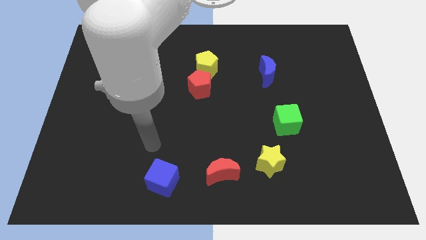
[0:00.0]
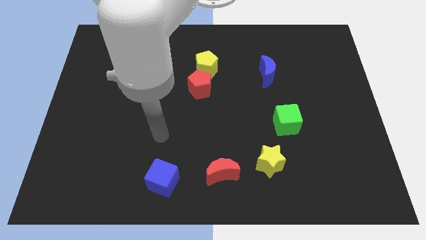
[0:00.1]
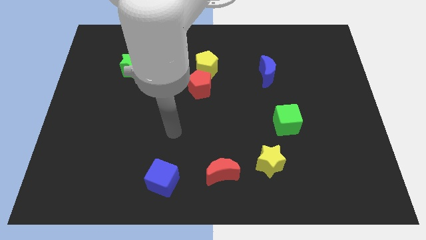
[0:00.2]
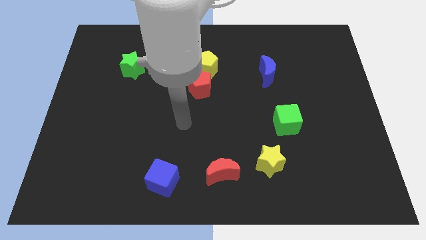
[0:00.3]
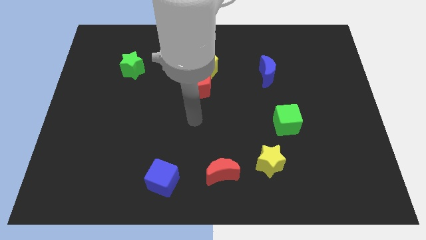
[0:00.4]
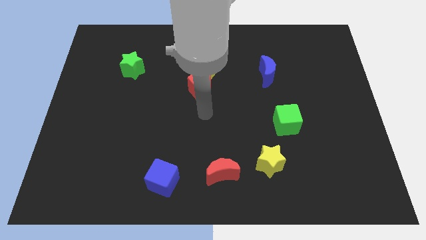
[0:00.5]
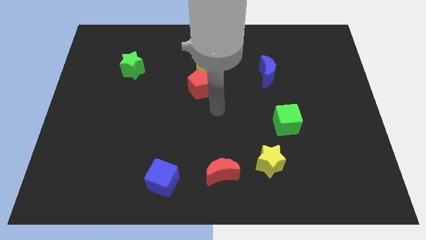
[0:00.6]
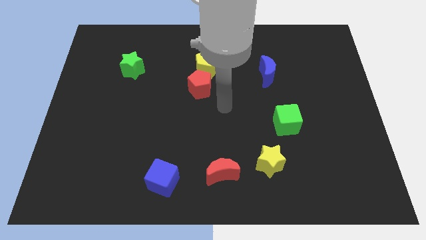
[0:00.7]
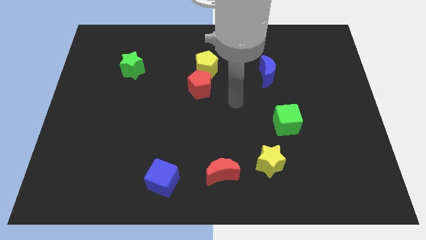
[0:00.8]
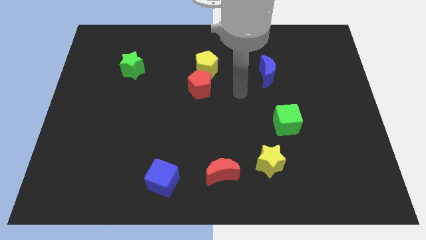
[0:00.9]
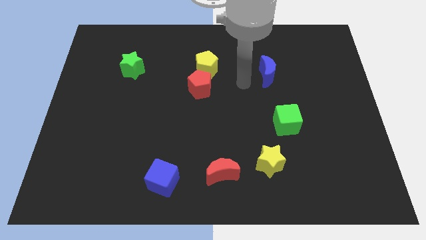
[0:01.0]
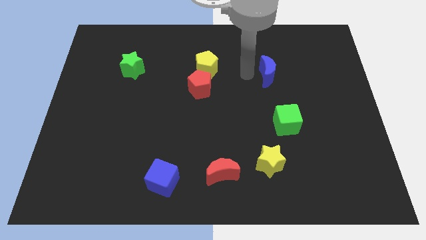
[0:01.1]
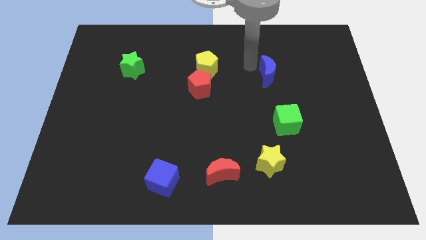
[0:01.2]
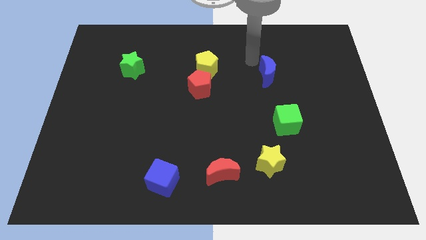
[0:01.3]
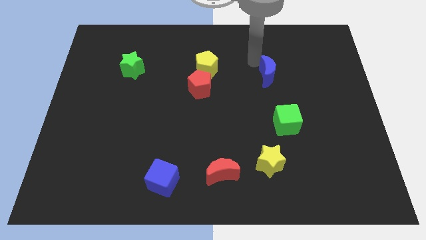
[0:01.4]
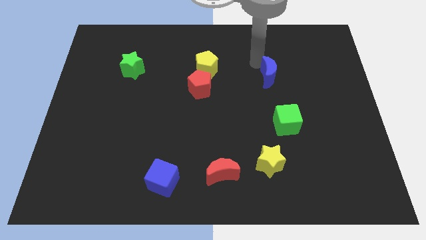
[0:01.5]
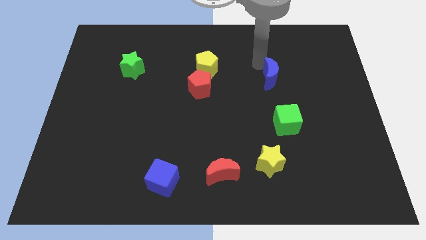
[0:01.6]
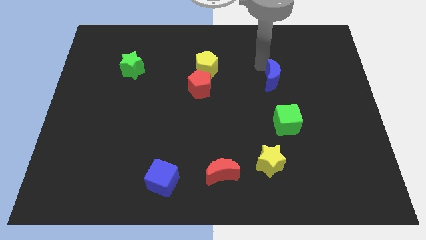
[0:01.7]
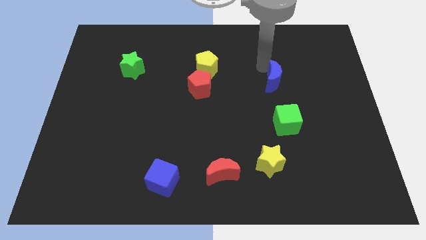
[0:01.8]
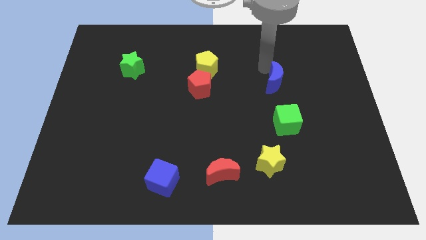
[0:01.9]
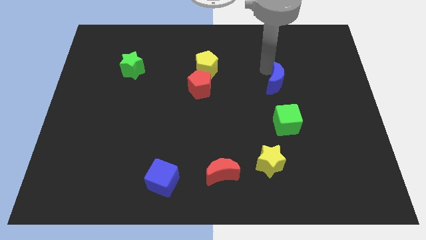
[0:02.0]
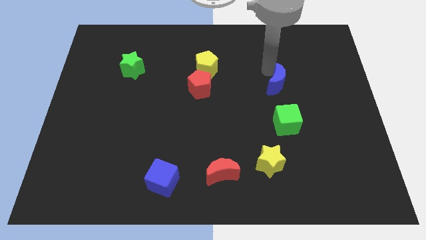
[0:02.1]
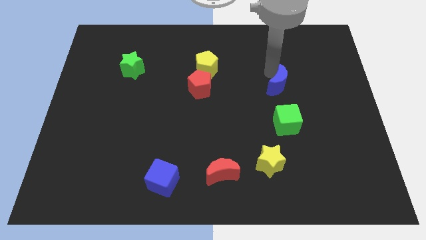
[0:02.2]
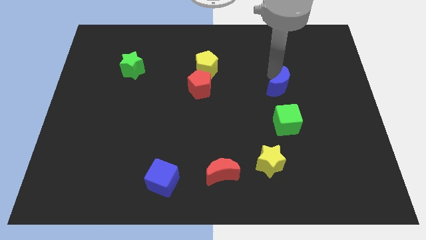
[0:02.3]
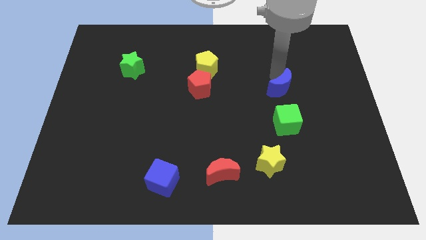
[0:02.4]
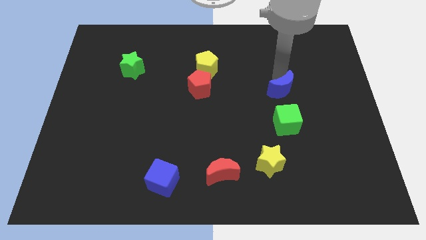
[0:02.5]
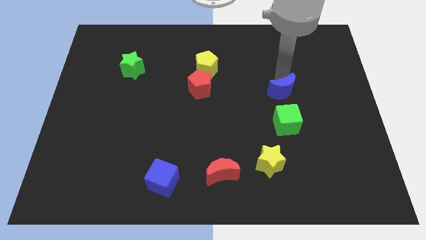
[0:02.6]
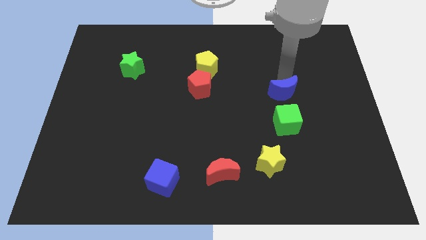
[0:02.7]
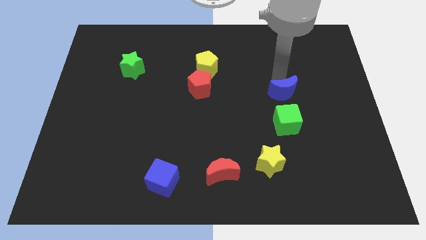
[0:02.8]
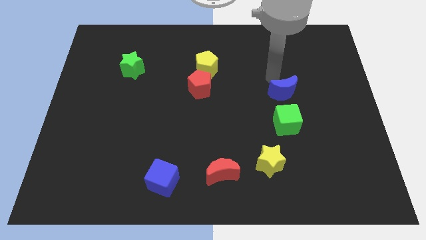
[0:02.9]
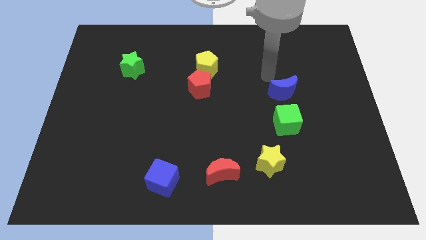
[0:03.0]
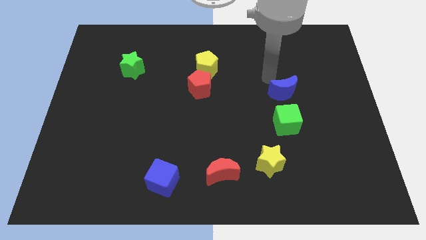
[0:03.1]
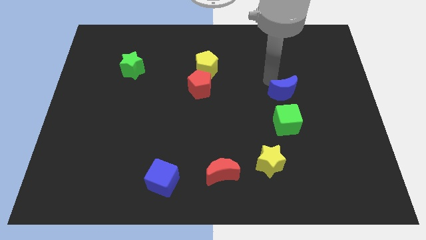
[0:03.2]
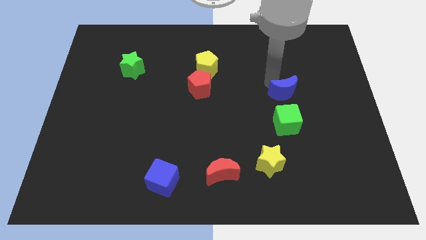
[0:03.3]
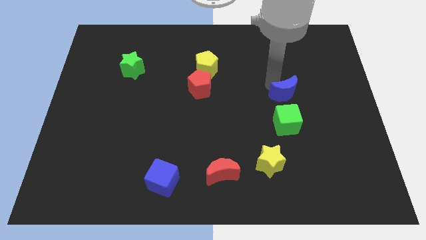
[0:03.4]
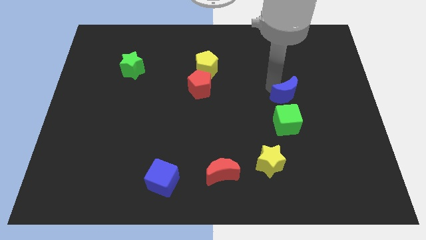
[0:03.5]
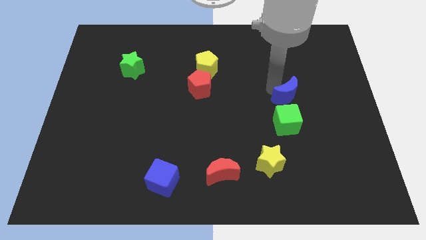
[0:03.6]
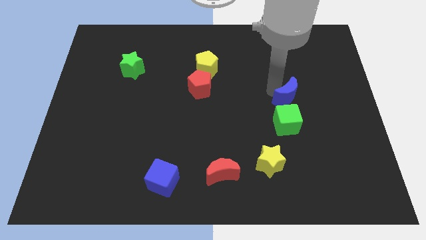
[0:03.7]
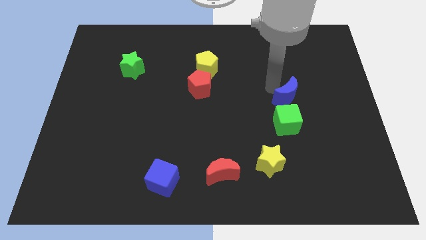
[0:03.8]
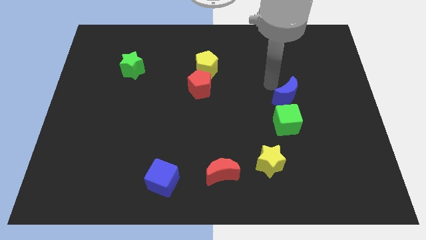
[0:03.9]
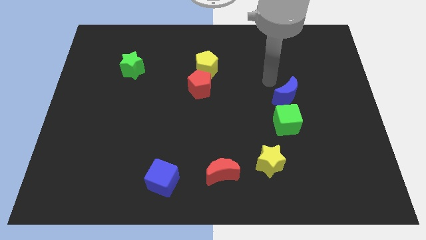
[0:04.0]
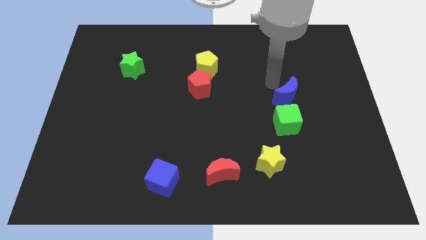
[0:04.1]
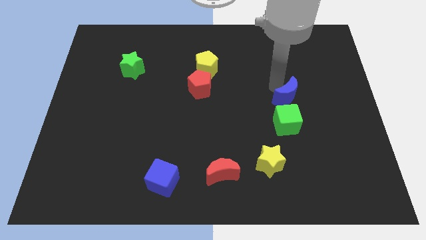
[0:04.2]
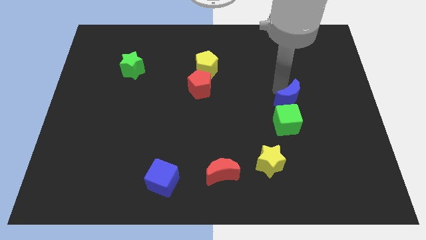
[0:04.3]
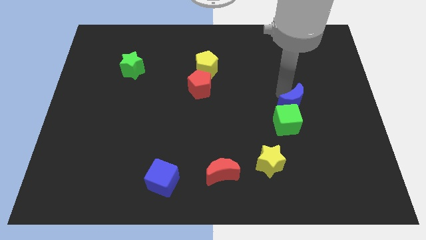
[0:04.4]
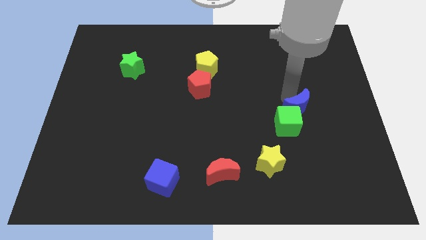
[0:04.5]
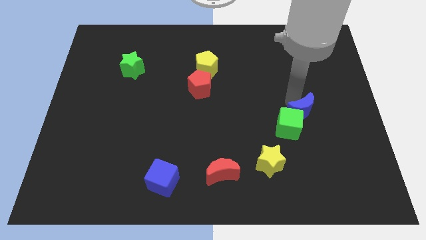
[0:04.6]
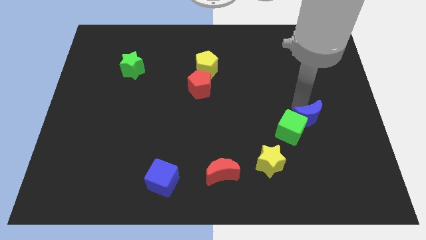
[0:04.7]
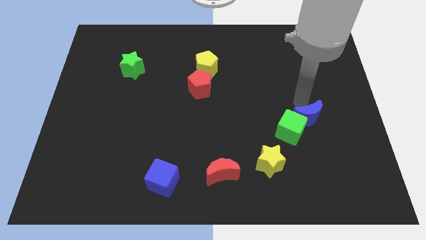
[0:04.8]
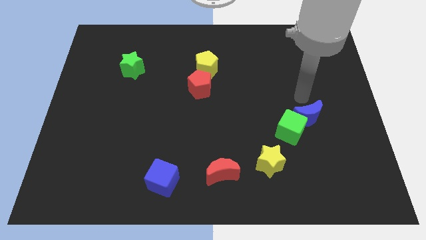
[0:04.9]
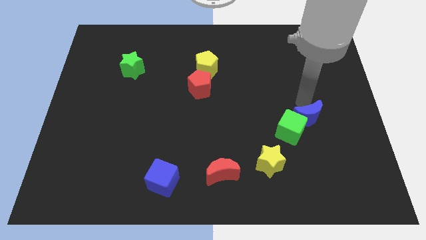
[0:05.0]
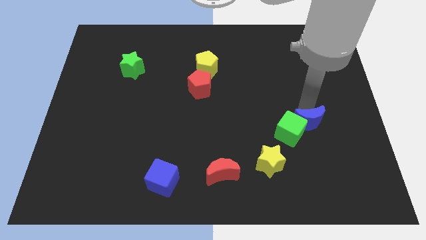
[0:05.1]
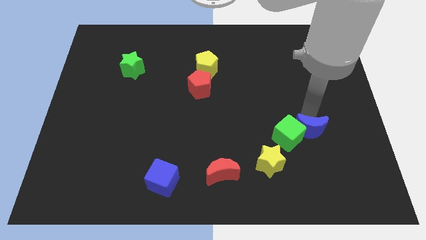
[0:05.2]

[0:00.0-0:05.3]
move the blue moon diagonally down and to the right of the green cube
